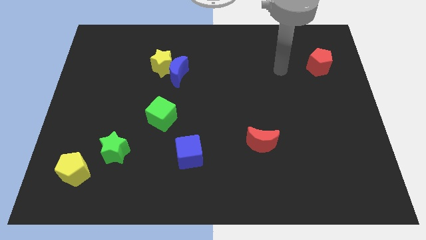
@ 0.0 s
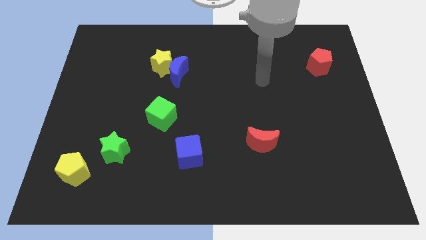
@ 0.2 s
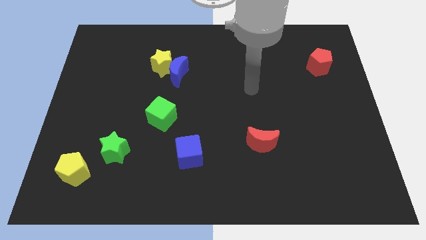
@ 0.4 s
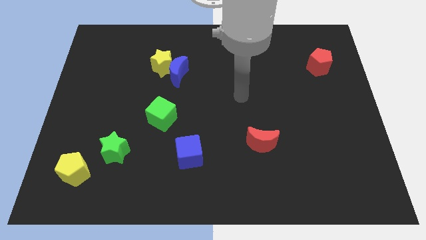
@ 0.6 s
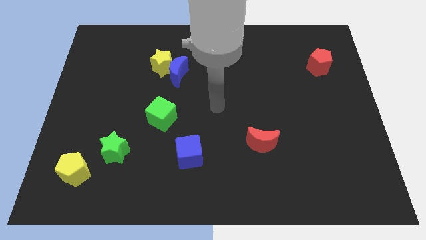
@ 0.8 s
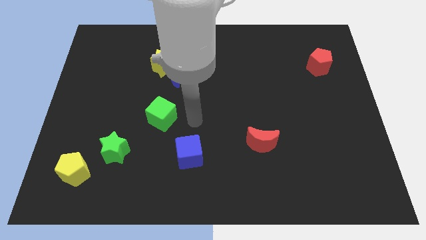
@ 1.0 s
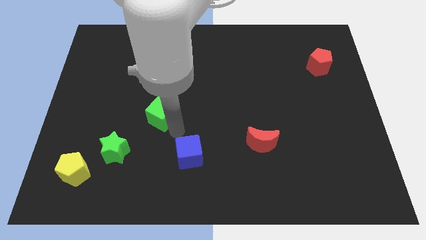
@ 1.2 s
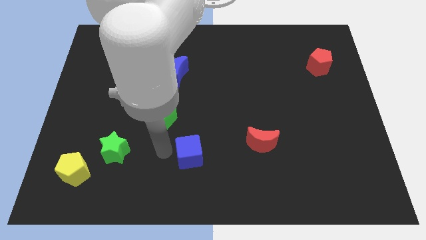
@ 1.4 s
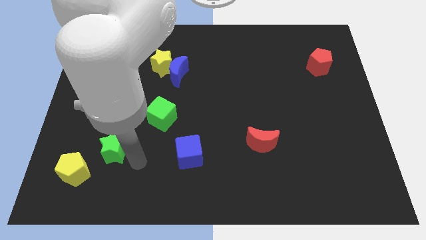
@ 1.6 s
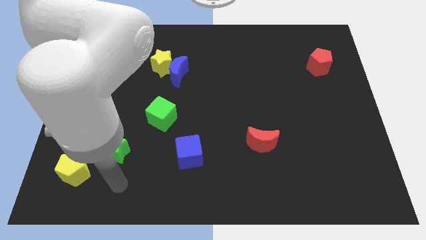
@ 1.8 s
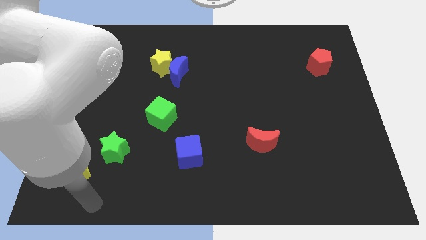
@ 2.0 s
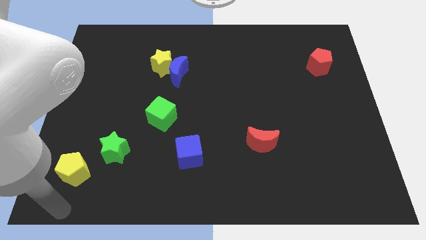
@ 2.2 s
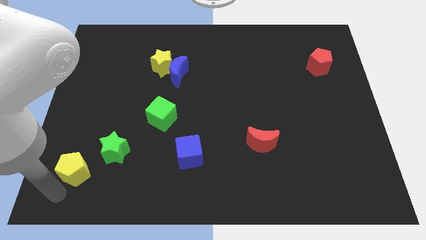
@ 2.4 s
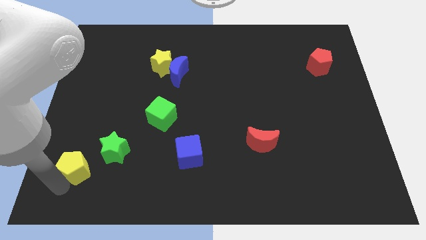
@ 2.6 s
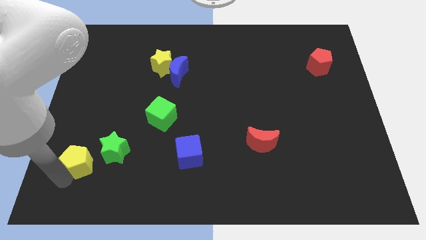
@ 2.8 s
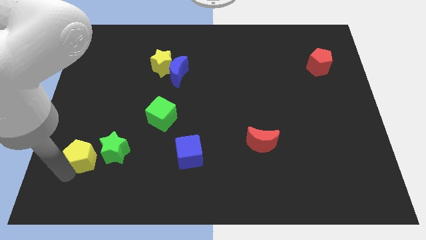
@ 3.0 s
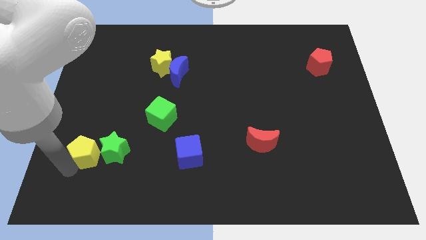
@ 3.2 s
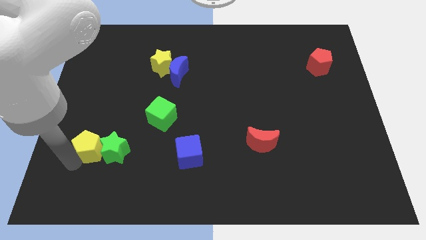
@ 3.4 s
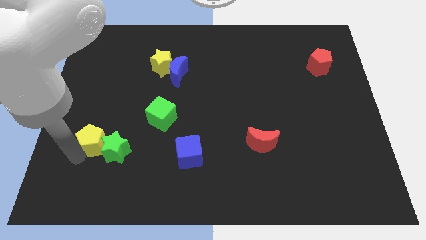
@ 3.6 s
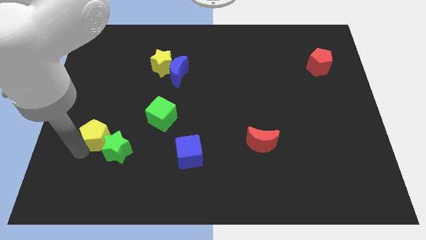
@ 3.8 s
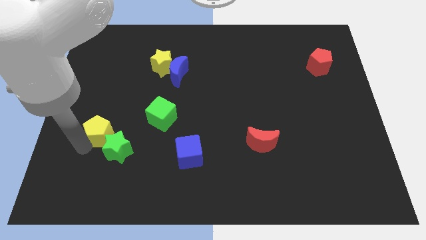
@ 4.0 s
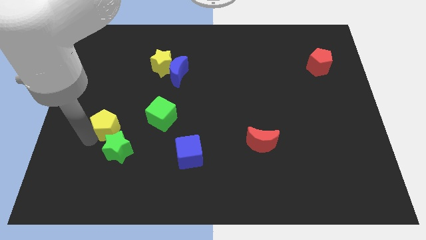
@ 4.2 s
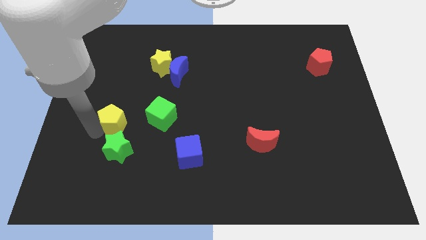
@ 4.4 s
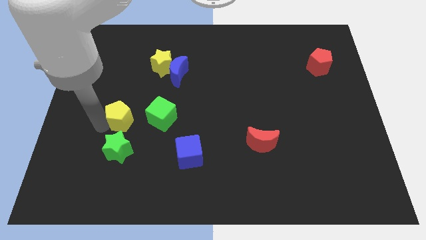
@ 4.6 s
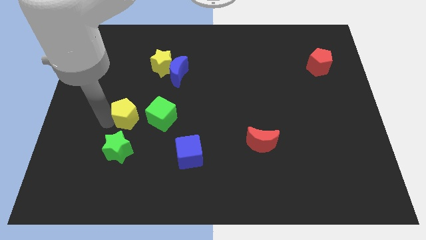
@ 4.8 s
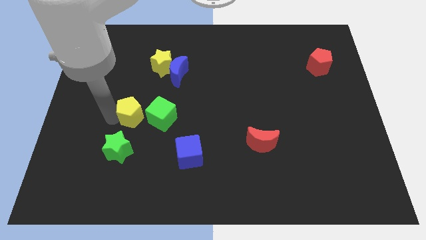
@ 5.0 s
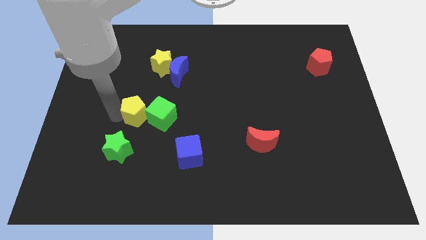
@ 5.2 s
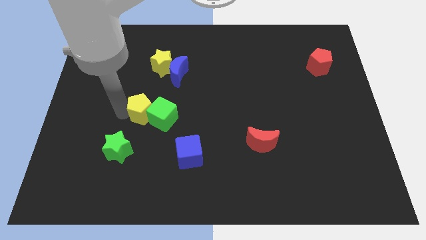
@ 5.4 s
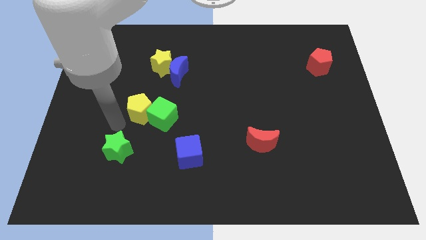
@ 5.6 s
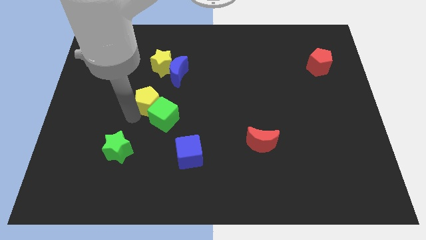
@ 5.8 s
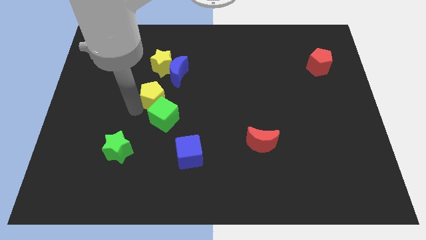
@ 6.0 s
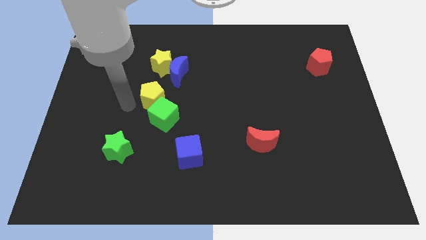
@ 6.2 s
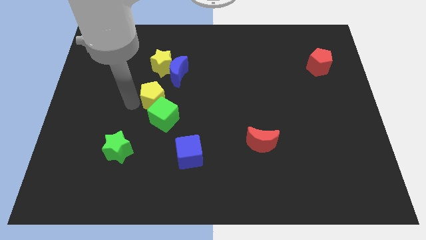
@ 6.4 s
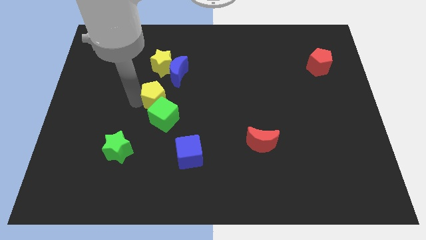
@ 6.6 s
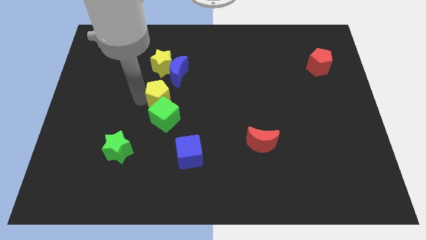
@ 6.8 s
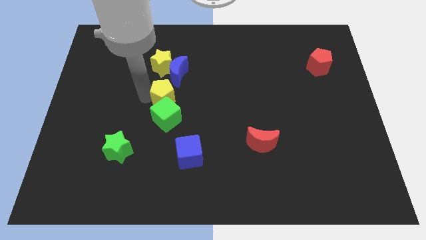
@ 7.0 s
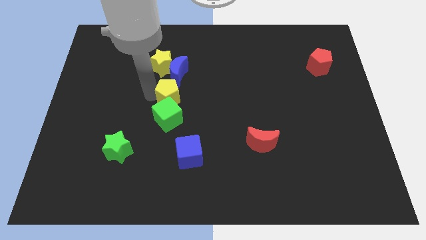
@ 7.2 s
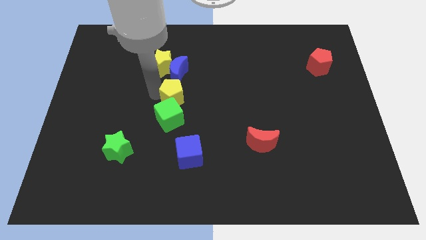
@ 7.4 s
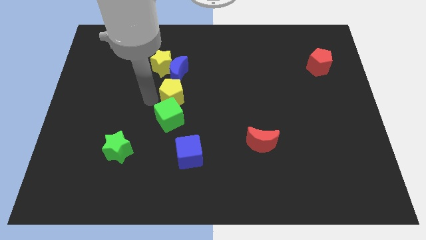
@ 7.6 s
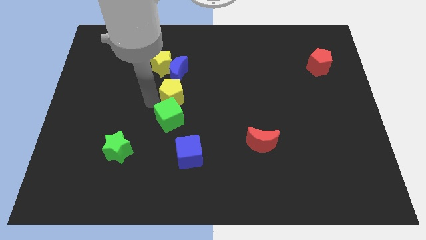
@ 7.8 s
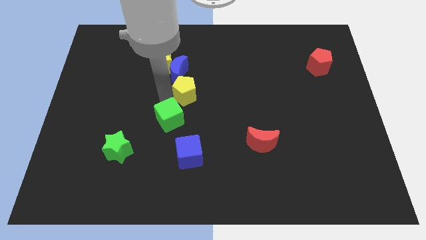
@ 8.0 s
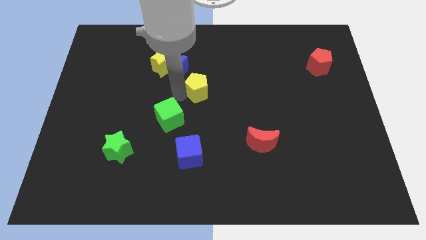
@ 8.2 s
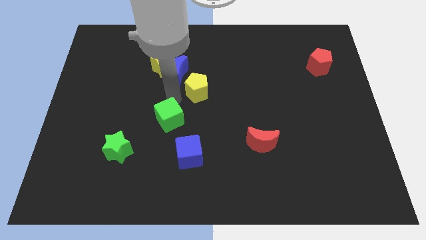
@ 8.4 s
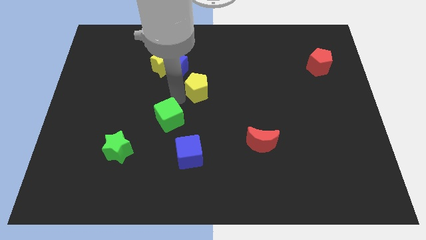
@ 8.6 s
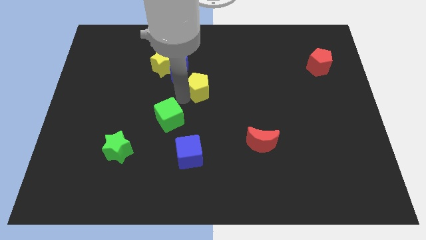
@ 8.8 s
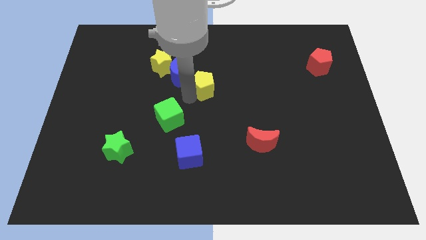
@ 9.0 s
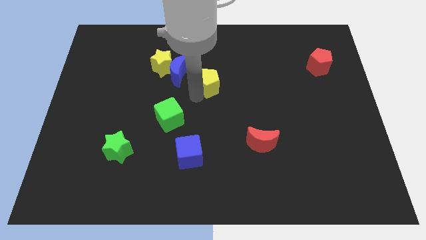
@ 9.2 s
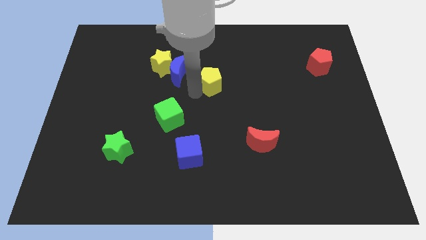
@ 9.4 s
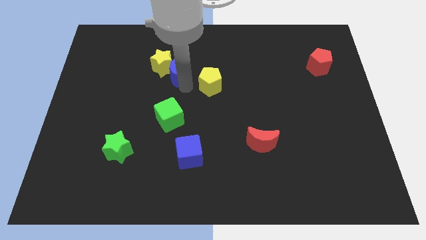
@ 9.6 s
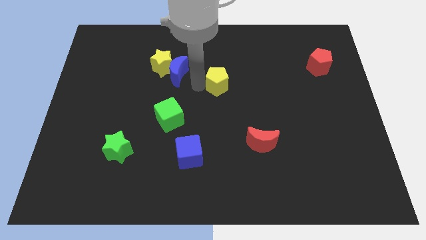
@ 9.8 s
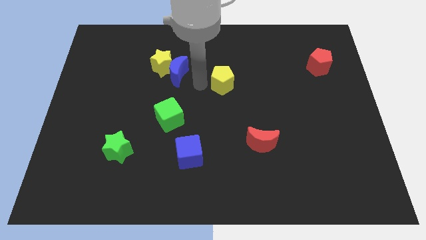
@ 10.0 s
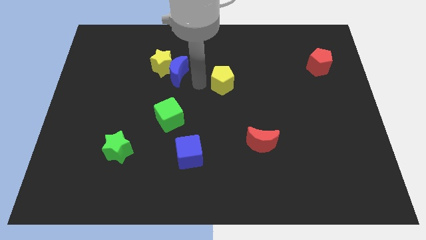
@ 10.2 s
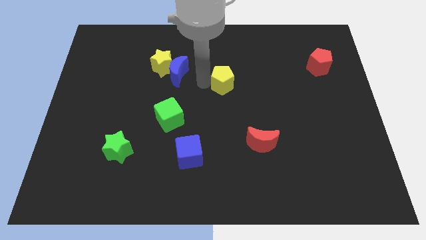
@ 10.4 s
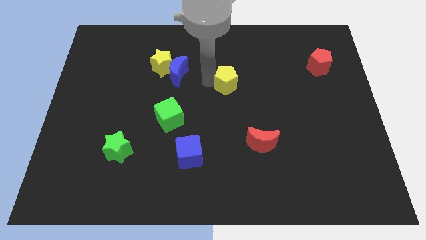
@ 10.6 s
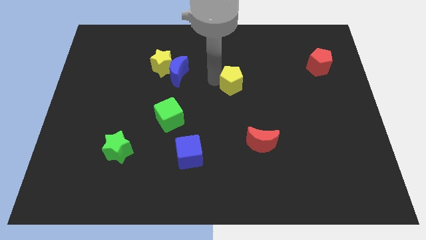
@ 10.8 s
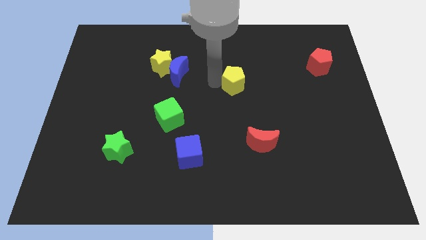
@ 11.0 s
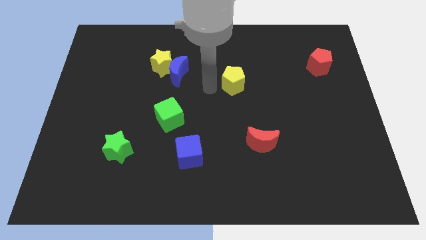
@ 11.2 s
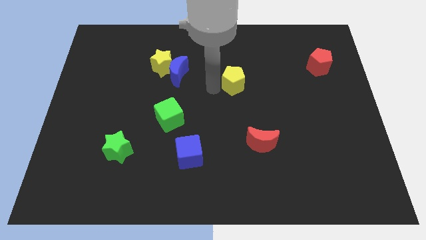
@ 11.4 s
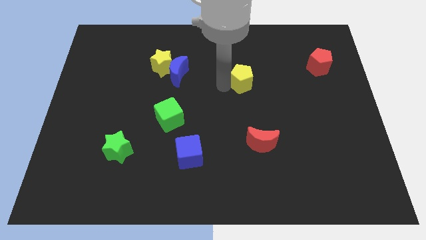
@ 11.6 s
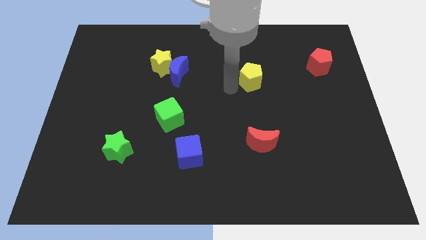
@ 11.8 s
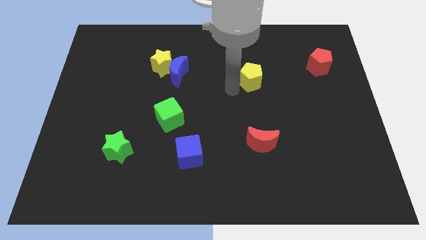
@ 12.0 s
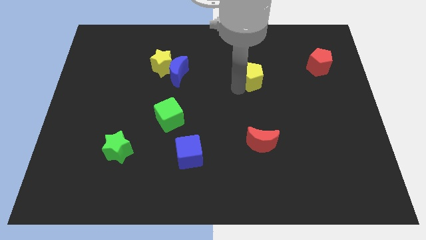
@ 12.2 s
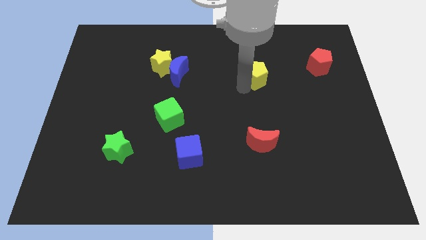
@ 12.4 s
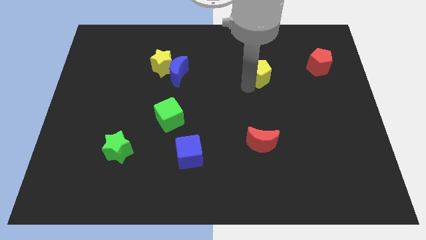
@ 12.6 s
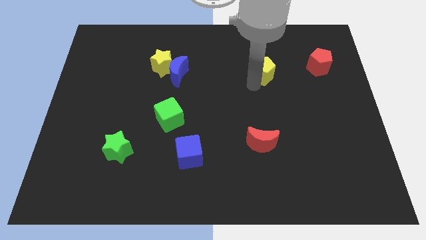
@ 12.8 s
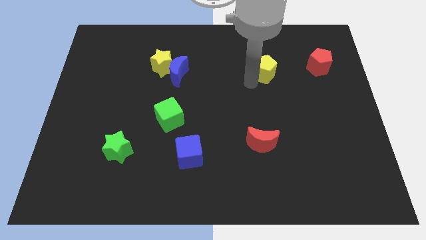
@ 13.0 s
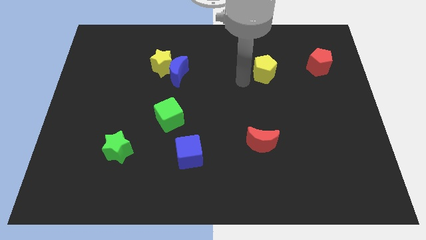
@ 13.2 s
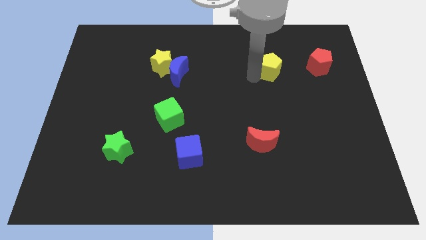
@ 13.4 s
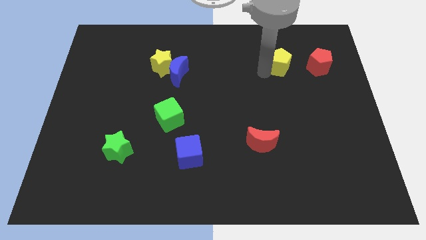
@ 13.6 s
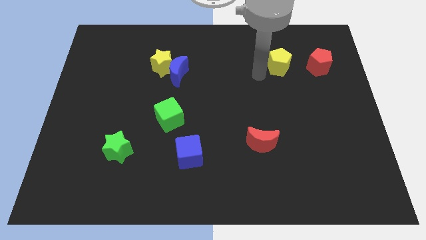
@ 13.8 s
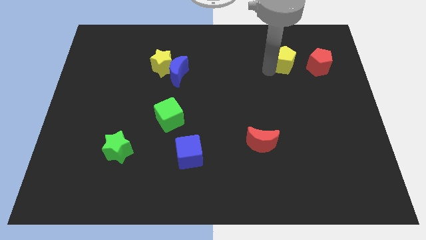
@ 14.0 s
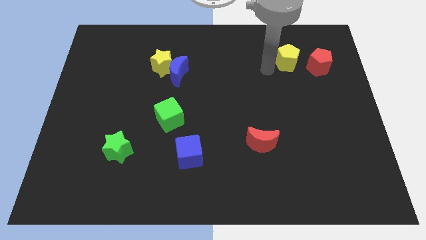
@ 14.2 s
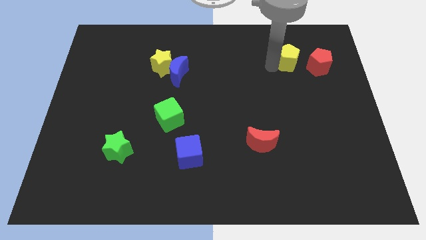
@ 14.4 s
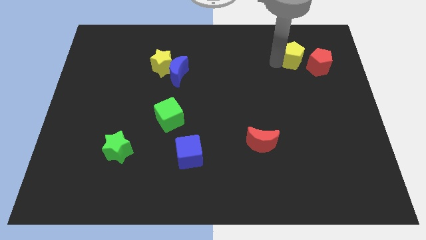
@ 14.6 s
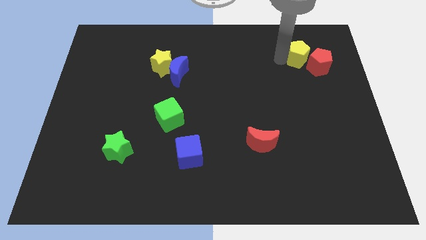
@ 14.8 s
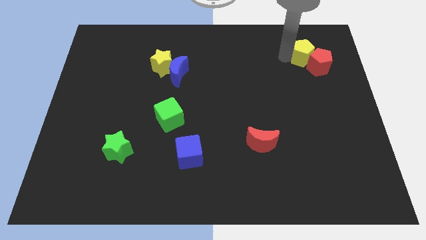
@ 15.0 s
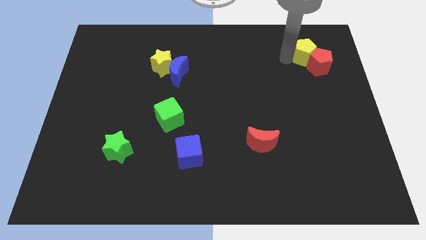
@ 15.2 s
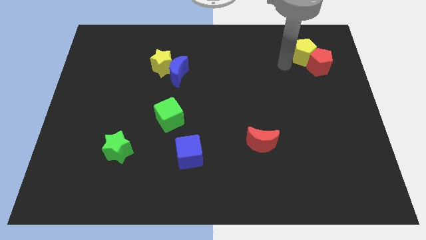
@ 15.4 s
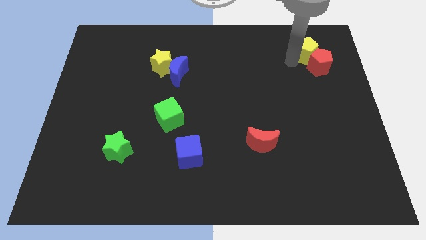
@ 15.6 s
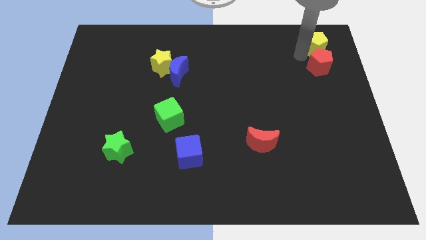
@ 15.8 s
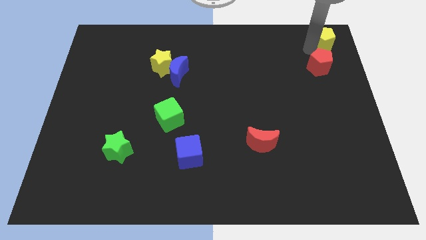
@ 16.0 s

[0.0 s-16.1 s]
put the yellow pentagon to the top right of the board
